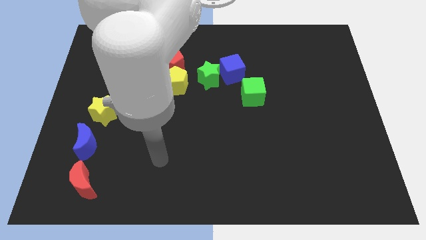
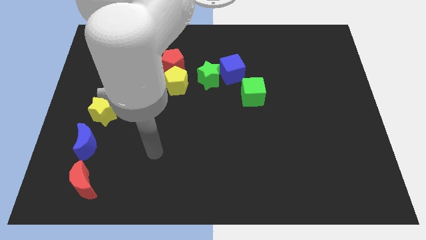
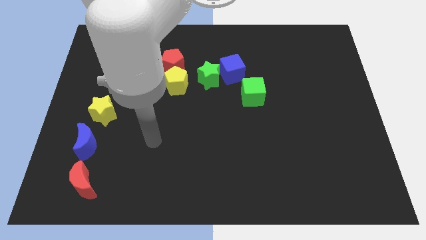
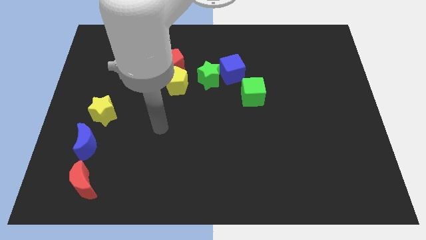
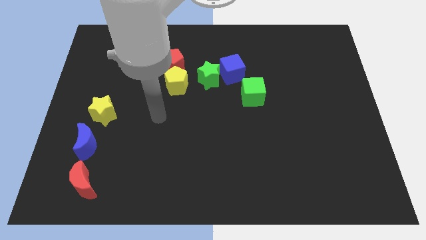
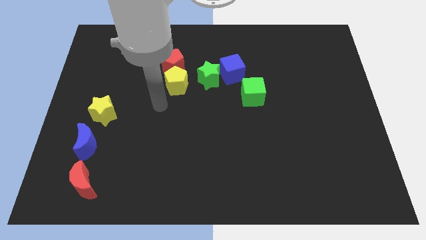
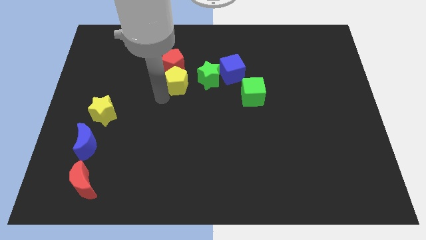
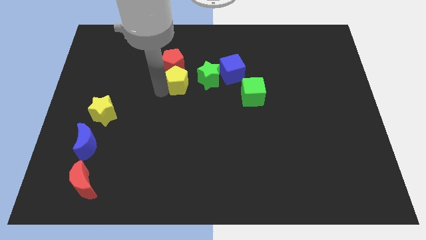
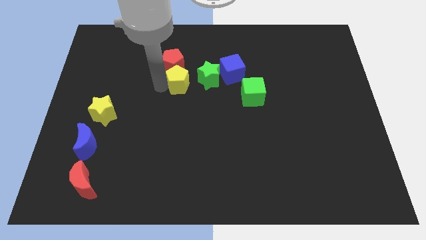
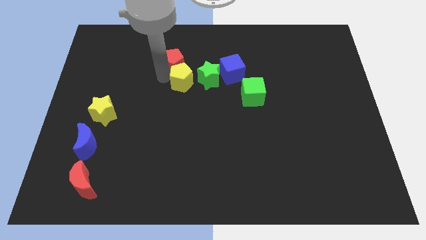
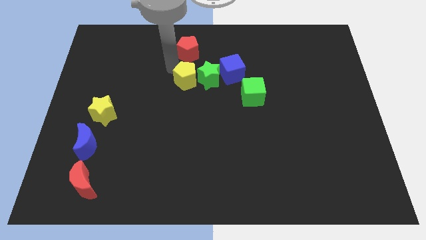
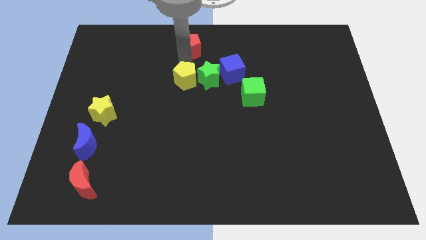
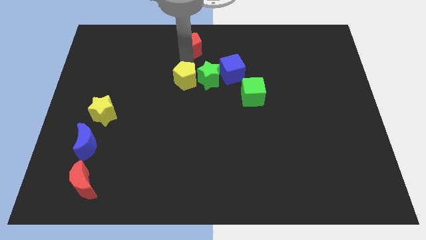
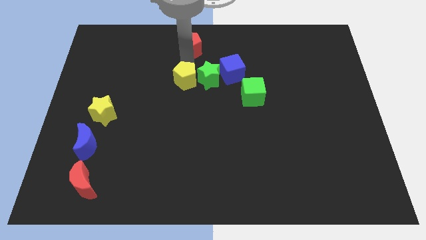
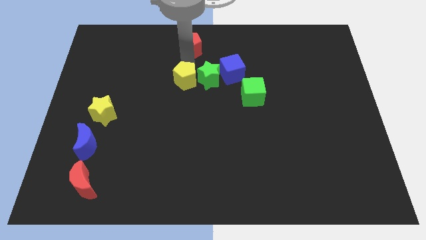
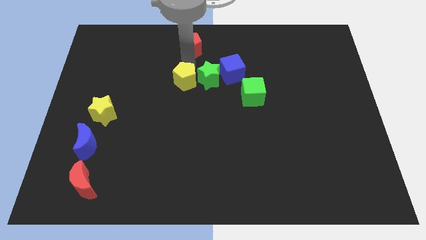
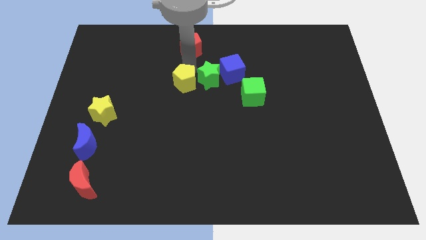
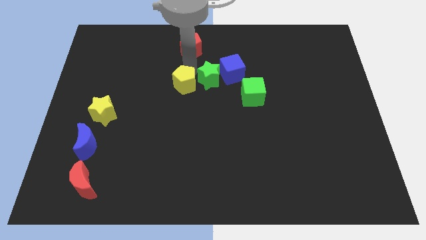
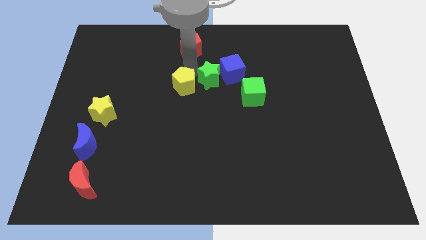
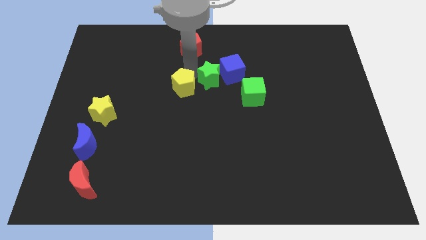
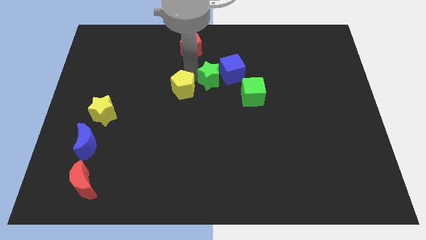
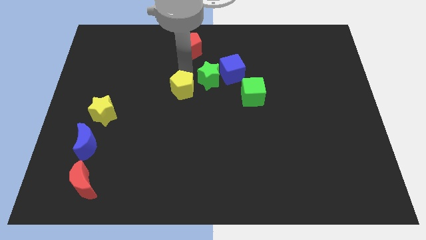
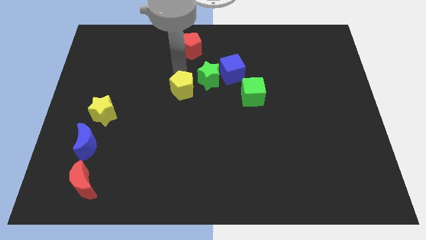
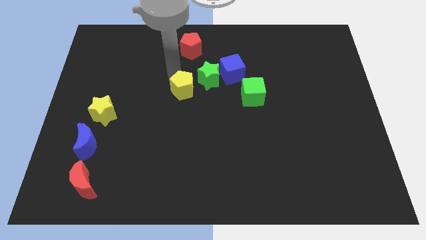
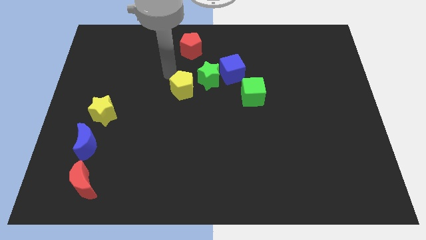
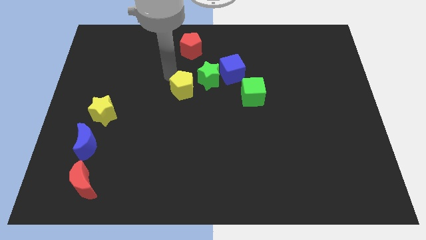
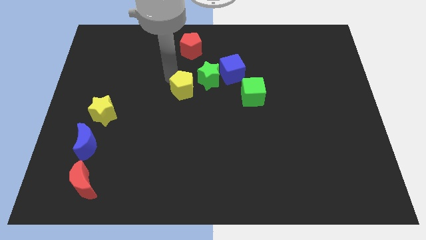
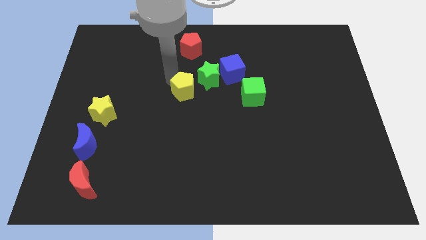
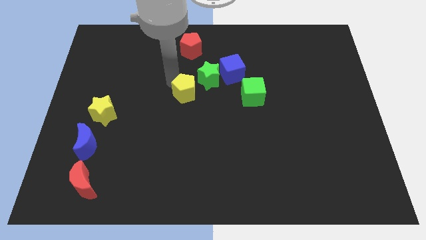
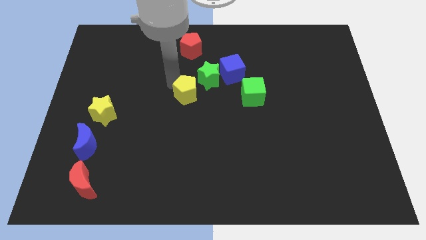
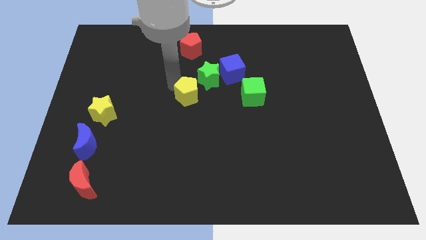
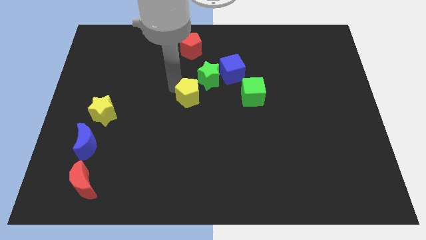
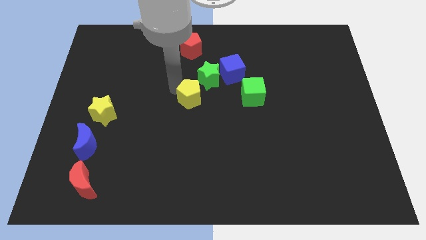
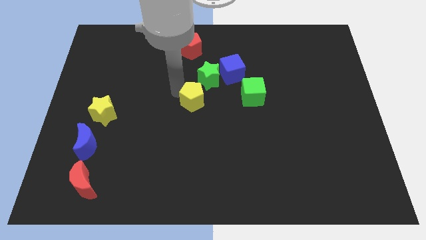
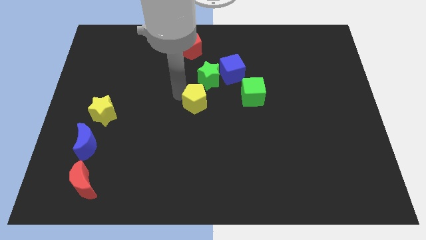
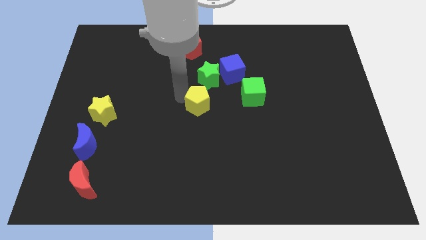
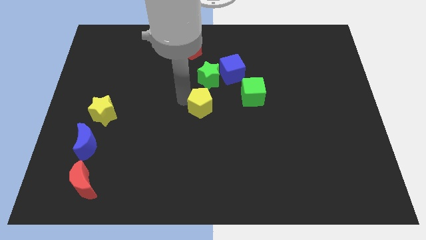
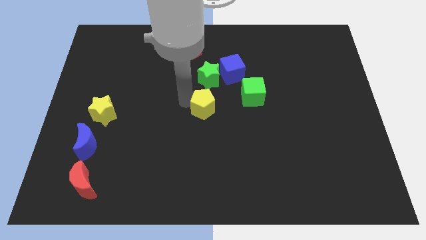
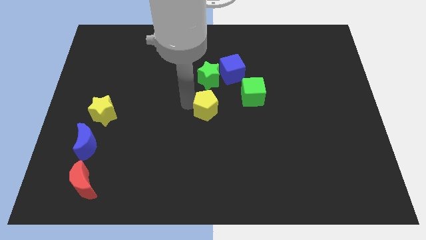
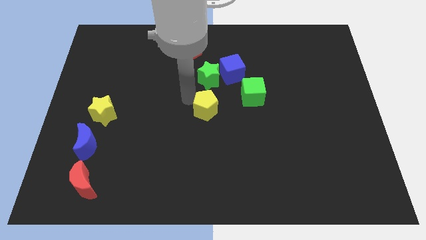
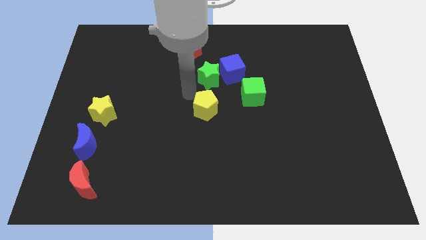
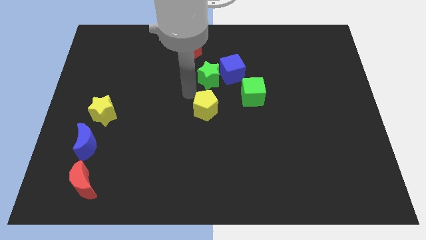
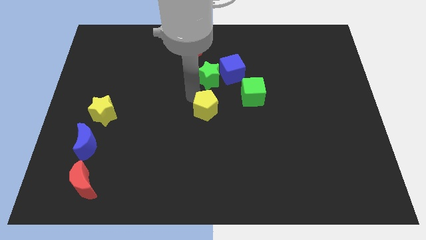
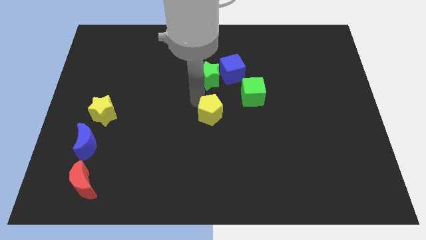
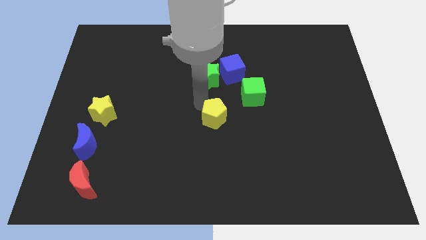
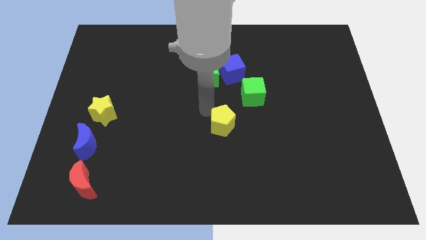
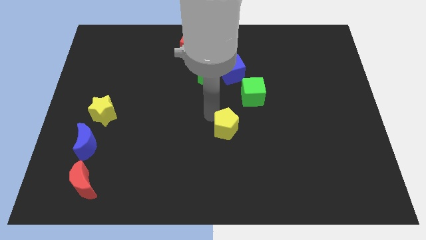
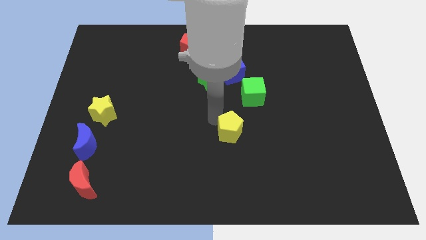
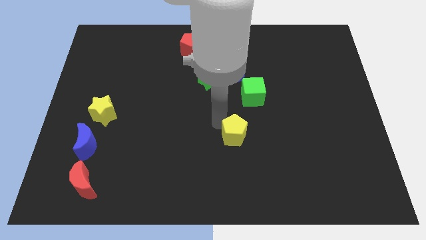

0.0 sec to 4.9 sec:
push the yellow pentagon diagonally down and right

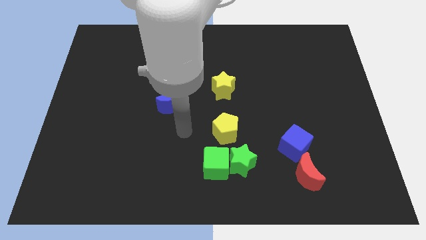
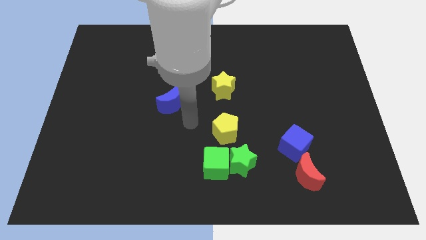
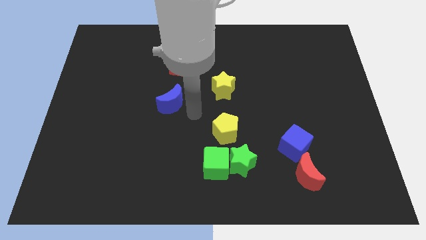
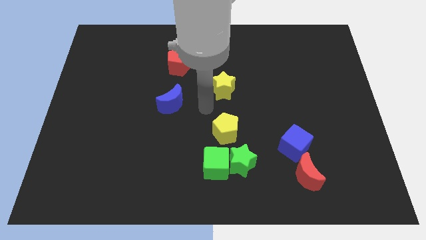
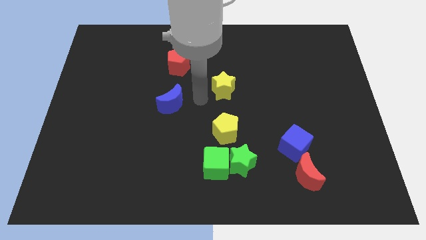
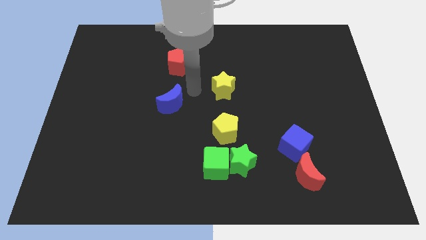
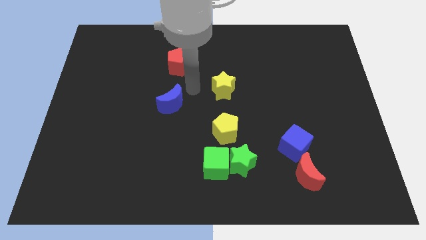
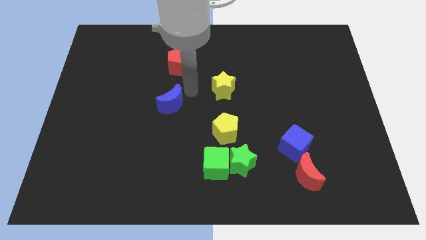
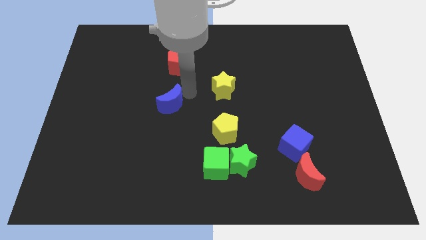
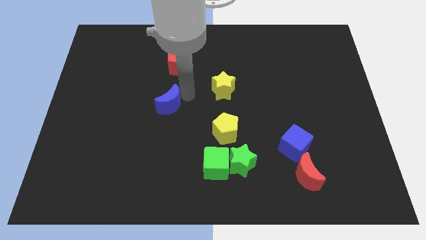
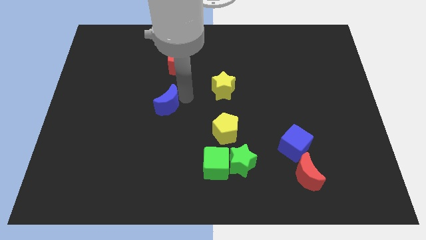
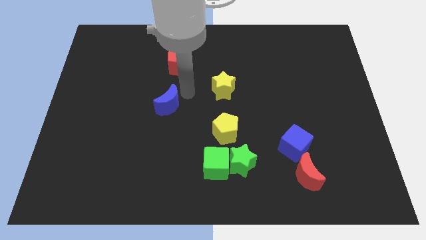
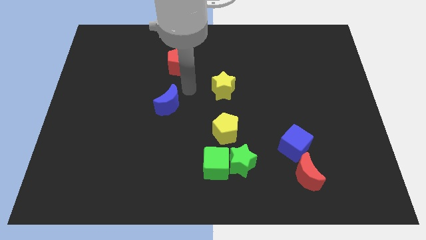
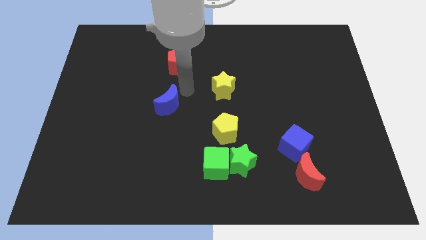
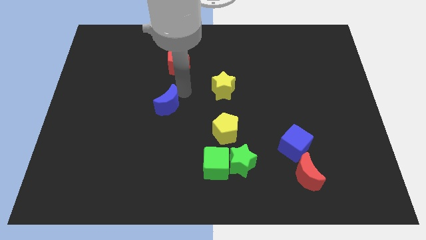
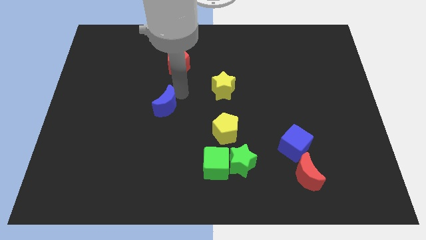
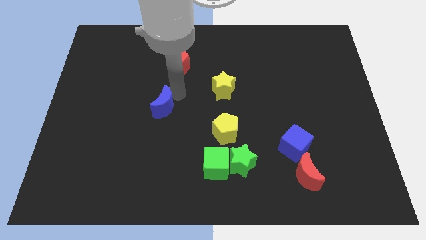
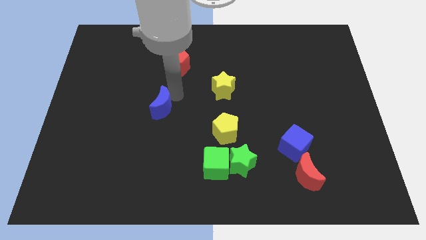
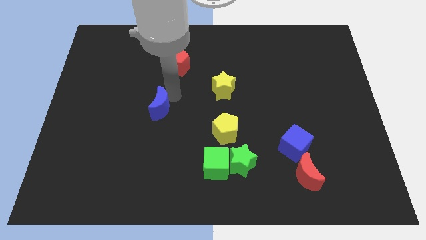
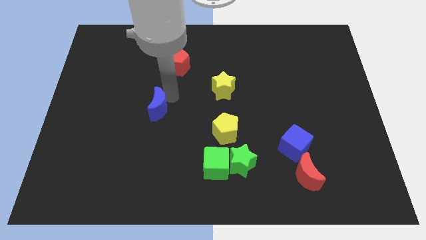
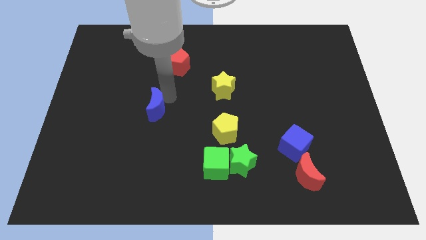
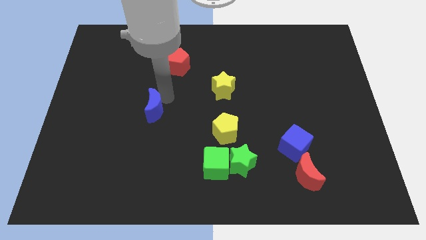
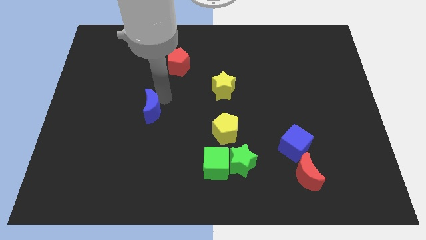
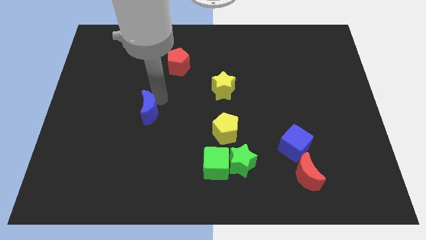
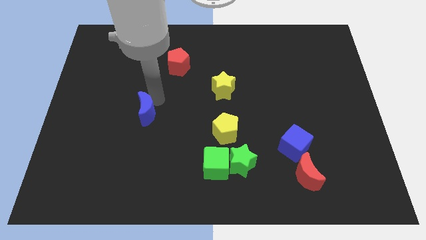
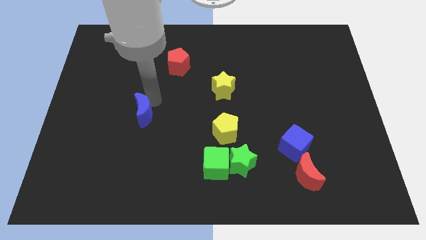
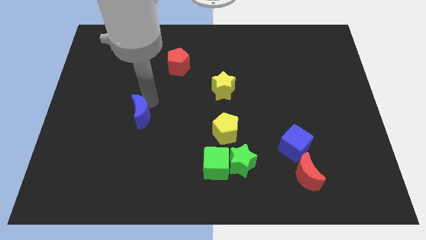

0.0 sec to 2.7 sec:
push the blue moon a little bit down and to the left diagonally

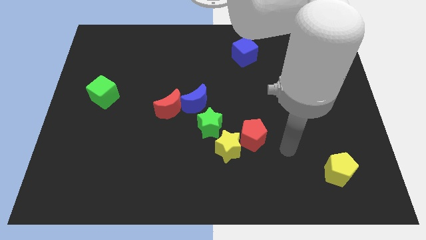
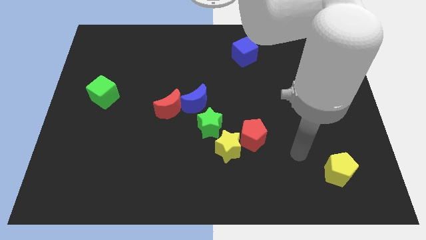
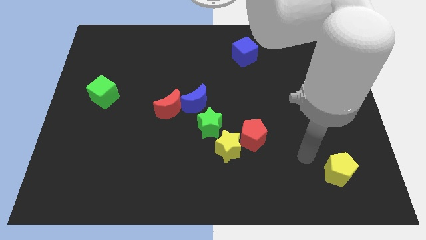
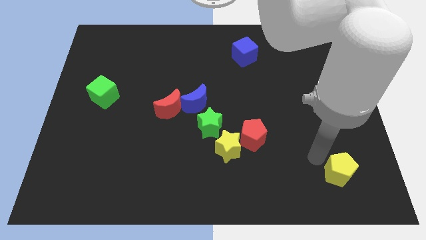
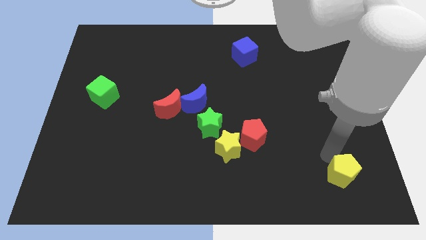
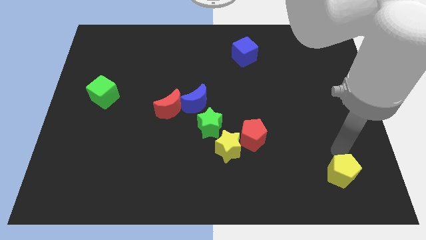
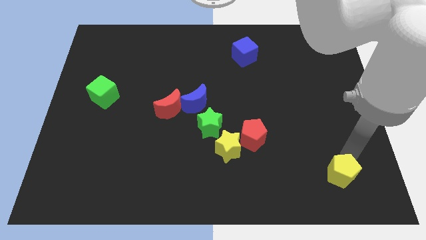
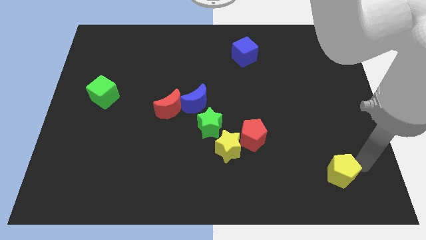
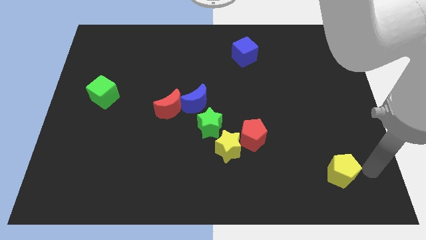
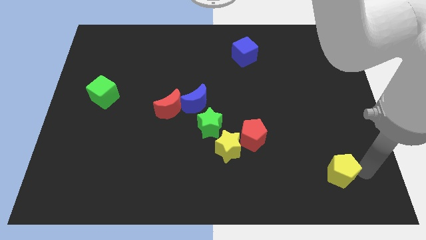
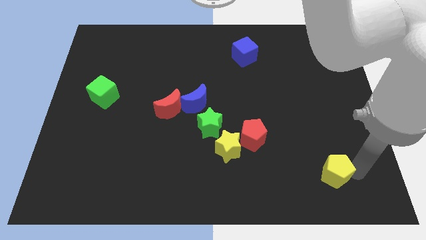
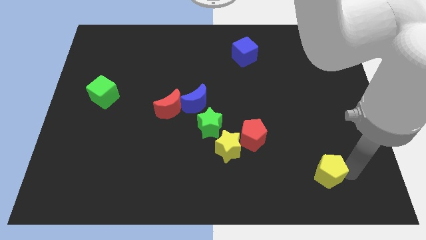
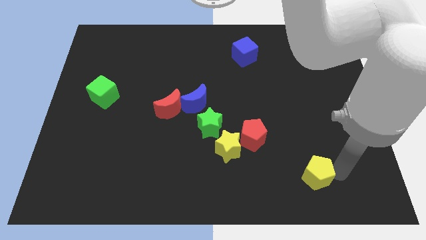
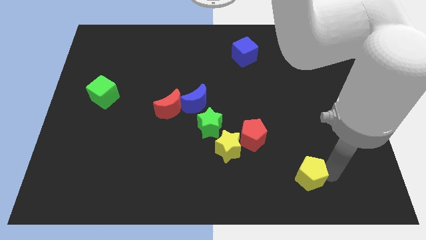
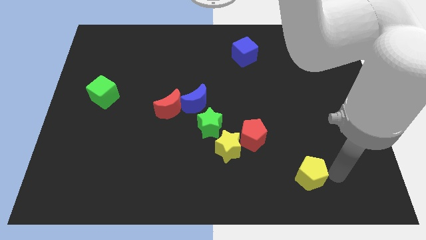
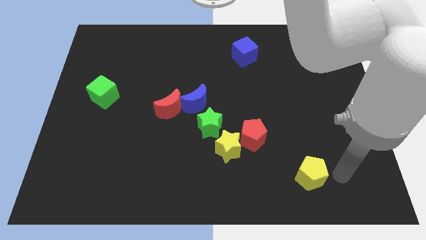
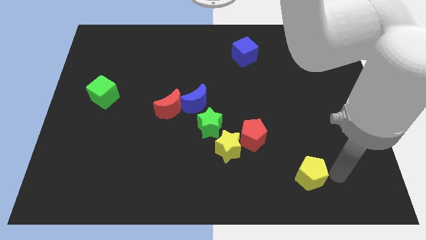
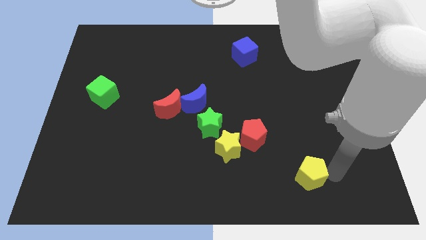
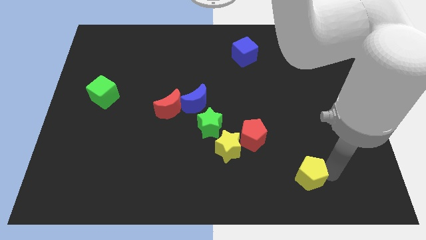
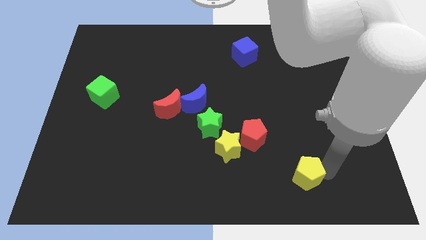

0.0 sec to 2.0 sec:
slide the yellow pentagon somewhat to the left
